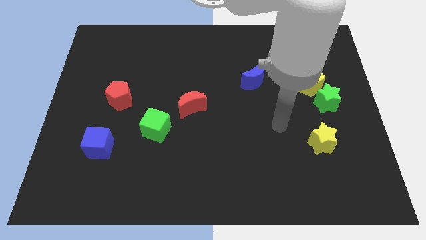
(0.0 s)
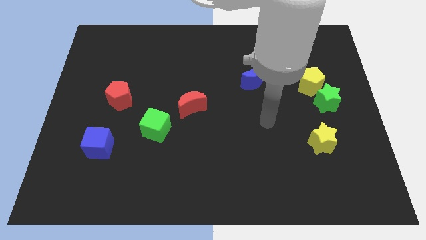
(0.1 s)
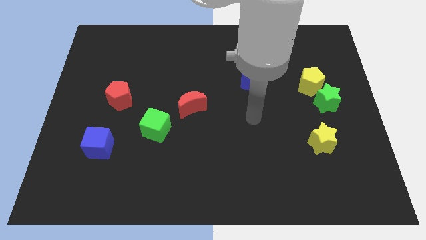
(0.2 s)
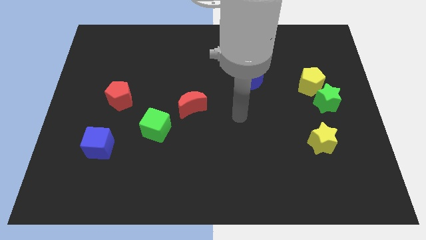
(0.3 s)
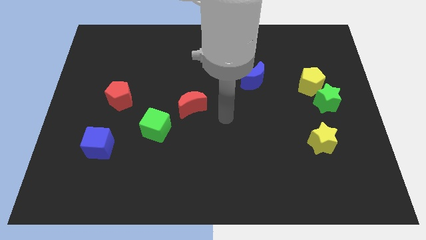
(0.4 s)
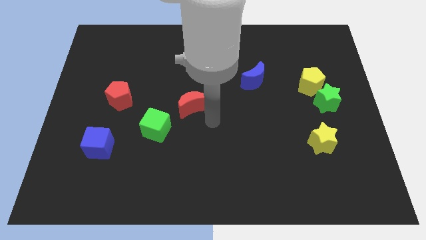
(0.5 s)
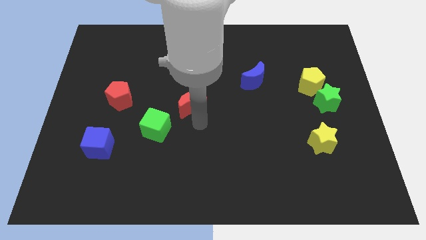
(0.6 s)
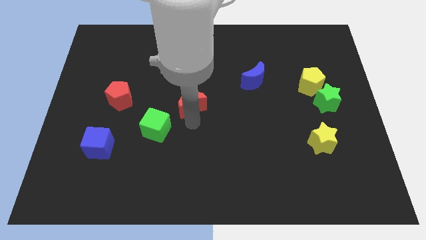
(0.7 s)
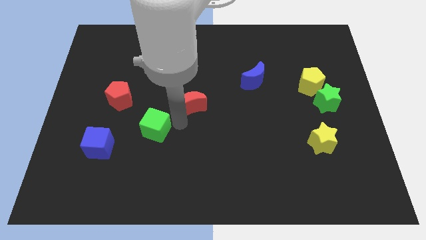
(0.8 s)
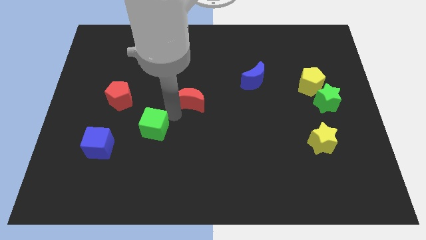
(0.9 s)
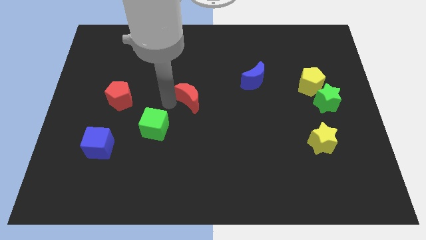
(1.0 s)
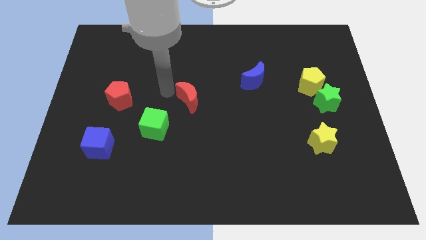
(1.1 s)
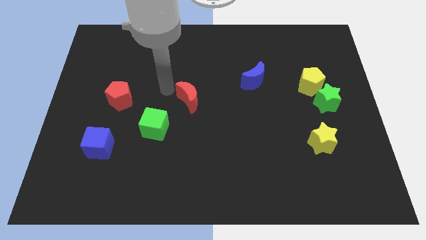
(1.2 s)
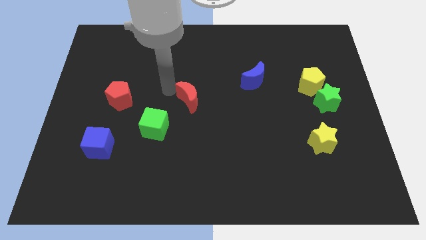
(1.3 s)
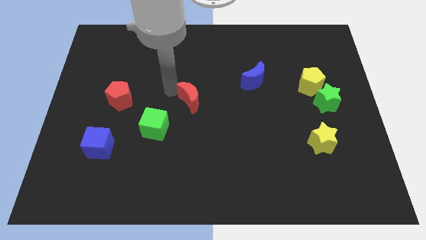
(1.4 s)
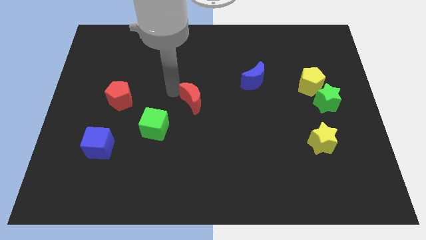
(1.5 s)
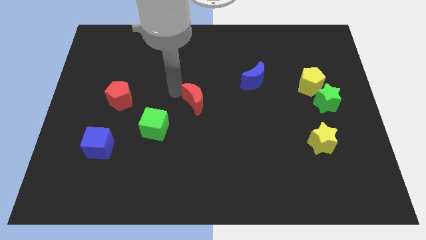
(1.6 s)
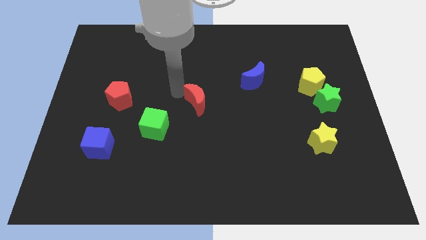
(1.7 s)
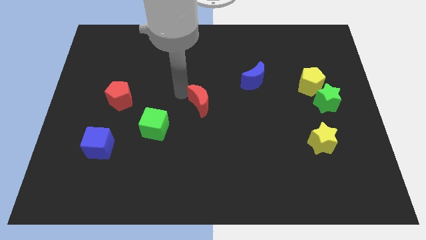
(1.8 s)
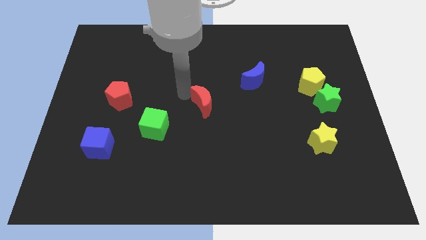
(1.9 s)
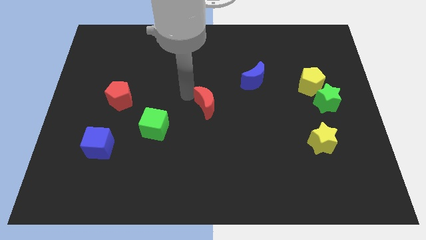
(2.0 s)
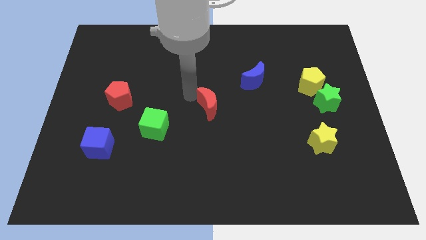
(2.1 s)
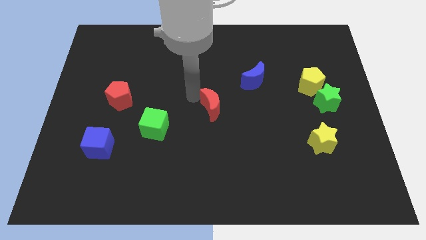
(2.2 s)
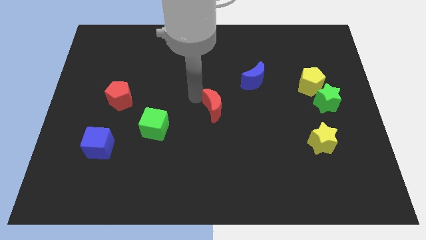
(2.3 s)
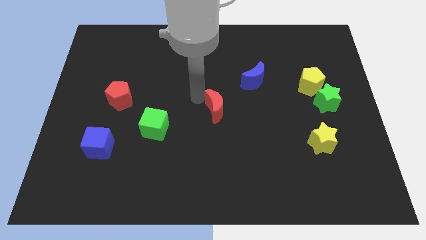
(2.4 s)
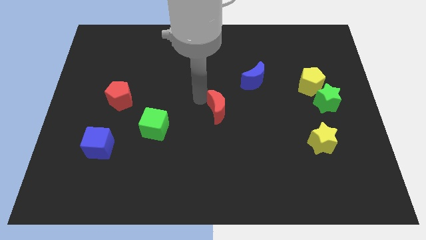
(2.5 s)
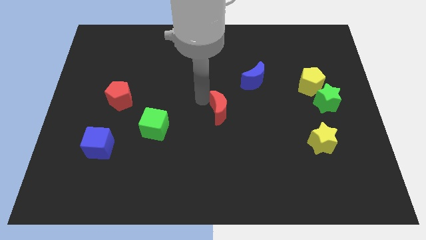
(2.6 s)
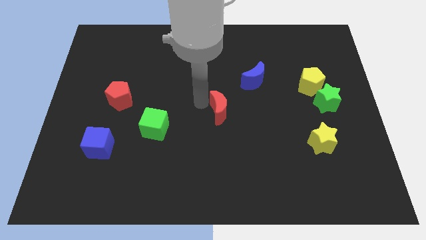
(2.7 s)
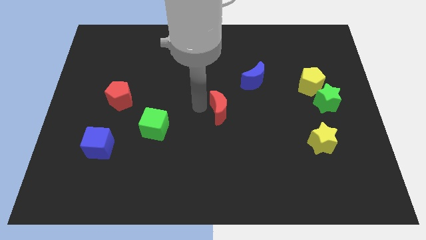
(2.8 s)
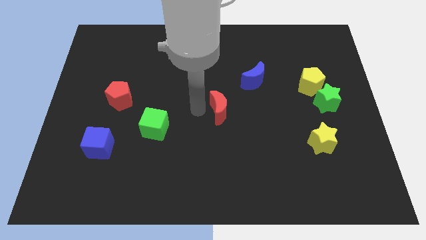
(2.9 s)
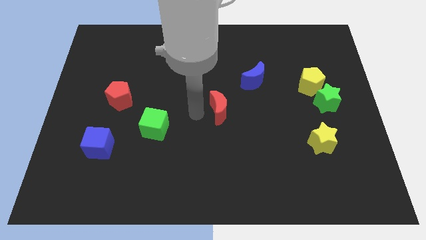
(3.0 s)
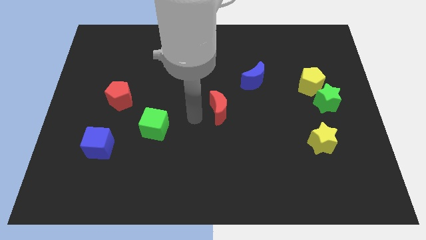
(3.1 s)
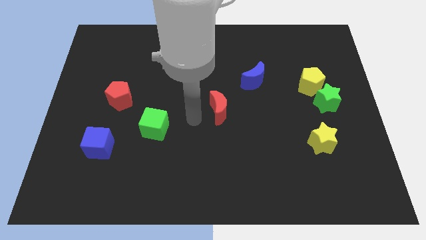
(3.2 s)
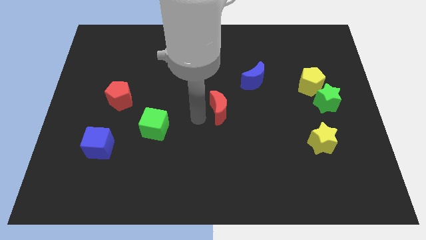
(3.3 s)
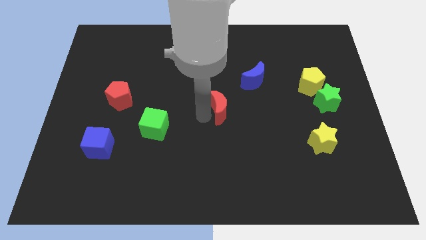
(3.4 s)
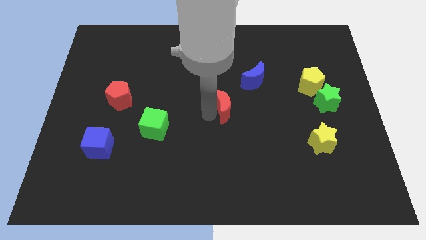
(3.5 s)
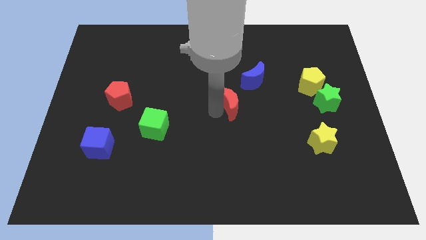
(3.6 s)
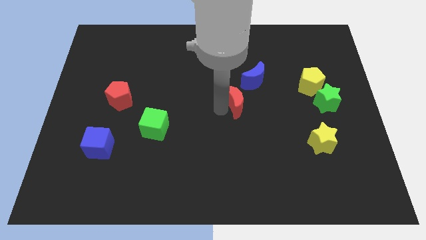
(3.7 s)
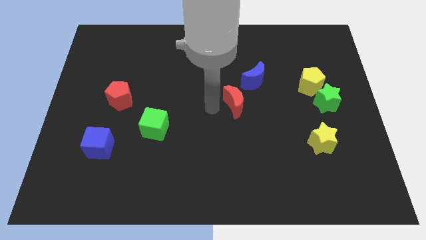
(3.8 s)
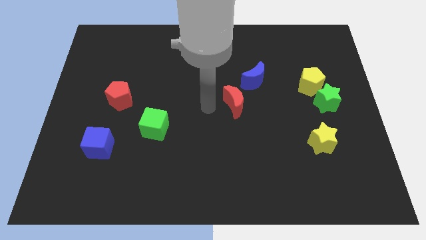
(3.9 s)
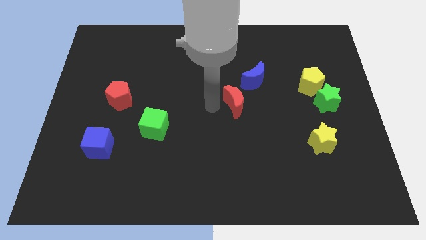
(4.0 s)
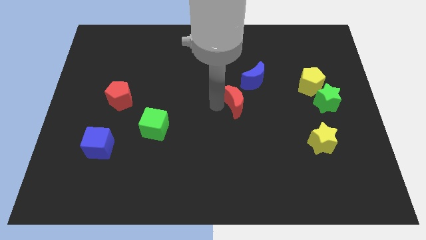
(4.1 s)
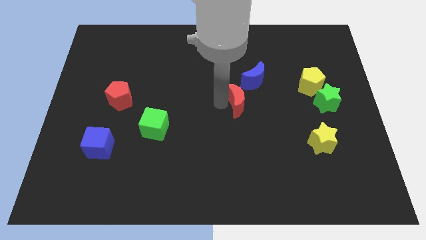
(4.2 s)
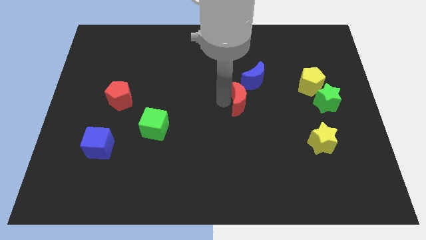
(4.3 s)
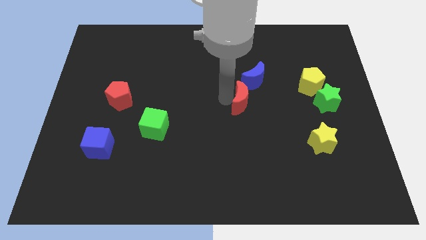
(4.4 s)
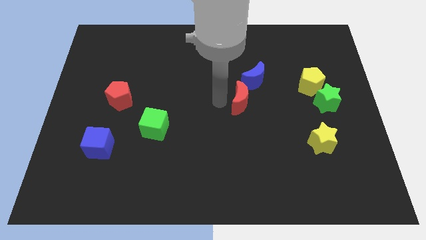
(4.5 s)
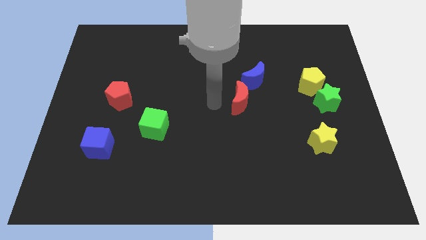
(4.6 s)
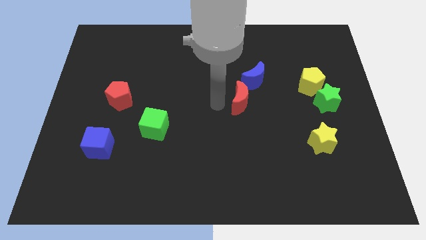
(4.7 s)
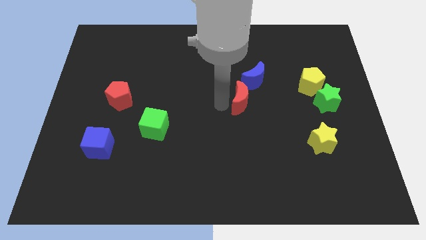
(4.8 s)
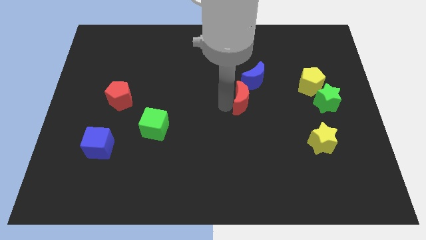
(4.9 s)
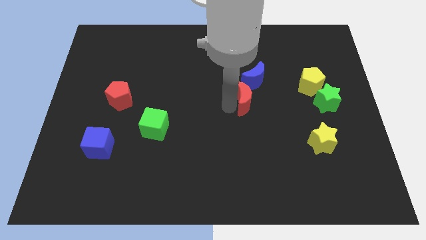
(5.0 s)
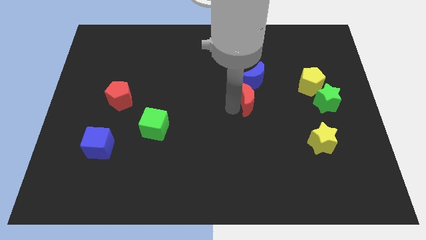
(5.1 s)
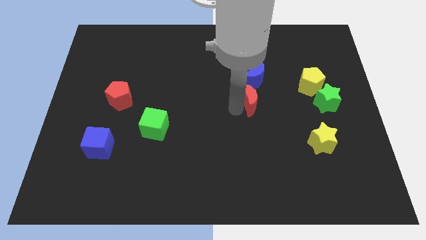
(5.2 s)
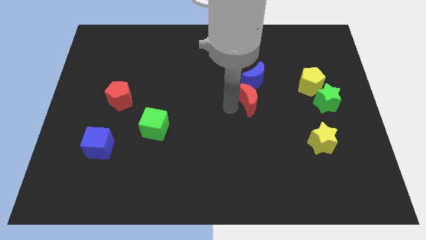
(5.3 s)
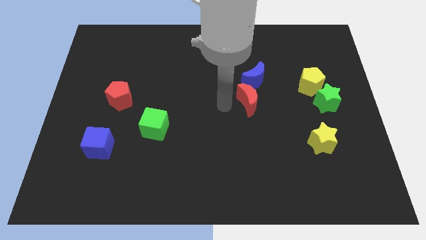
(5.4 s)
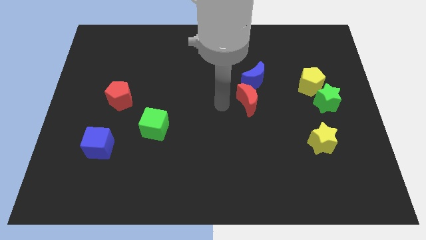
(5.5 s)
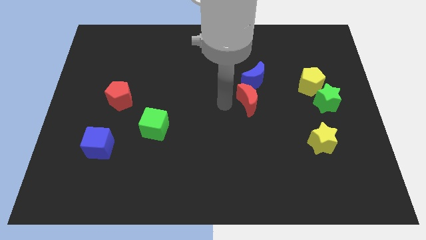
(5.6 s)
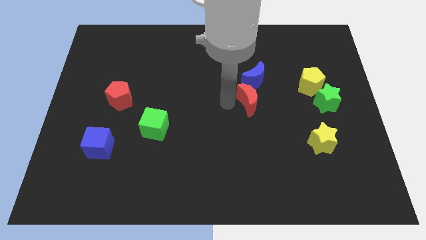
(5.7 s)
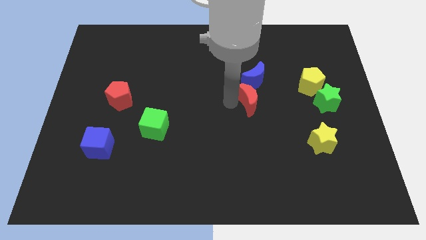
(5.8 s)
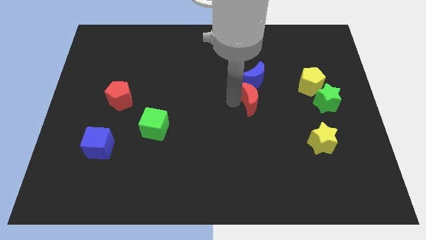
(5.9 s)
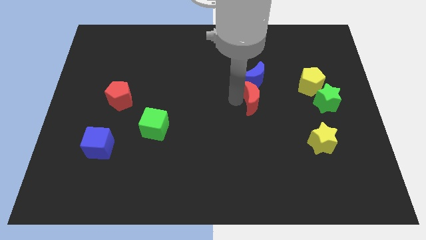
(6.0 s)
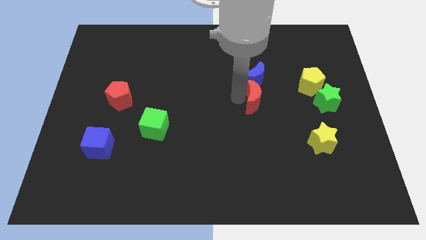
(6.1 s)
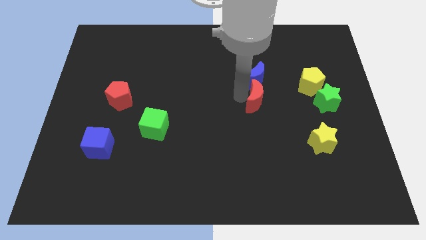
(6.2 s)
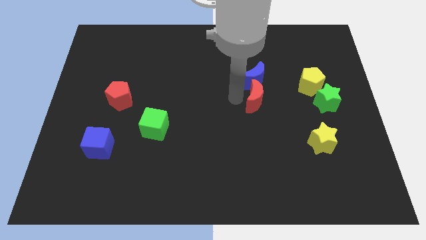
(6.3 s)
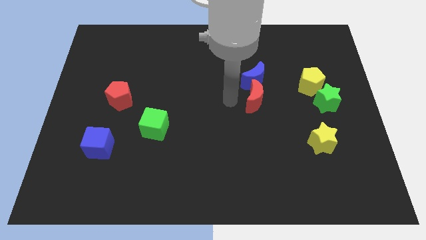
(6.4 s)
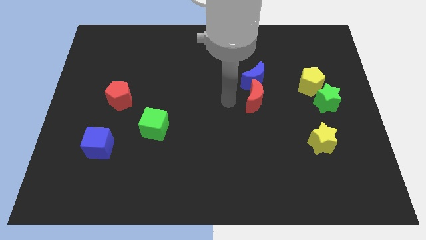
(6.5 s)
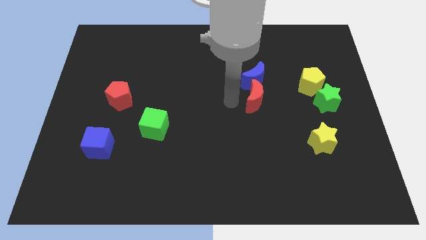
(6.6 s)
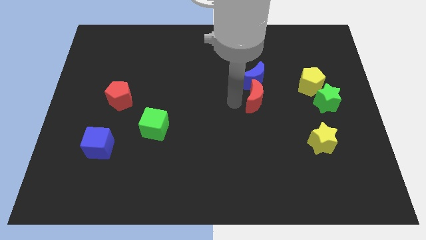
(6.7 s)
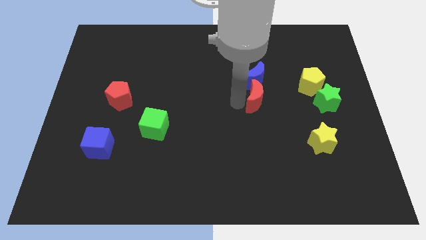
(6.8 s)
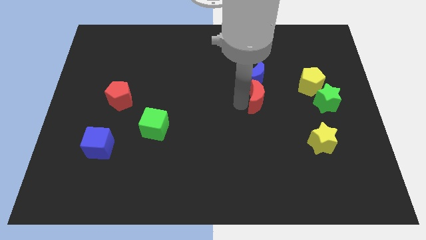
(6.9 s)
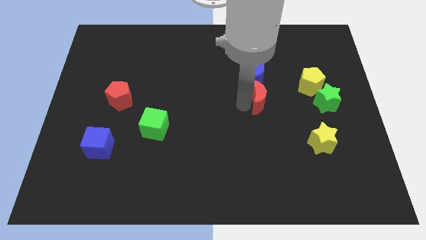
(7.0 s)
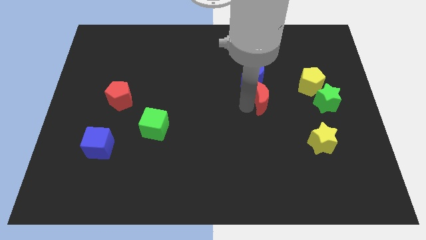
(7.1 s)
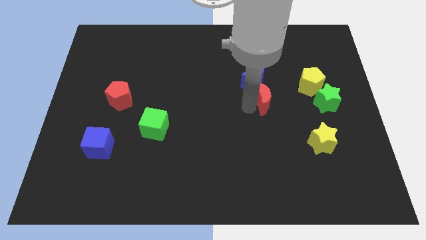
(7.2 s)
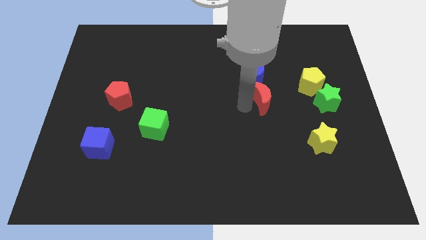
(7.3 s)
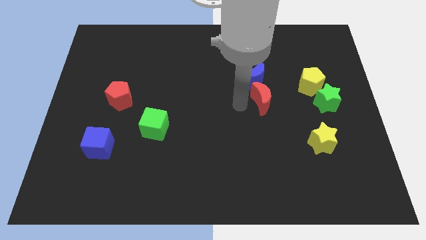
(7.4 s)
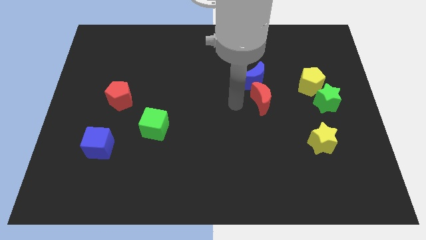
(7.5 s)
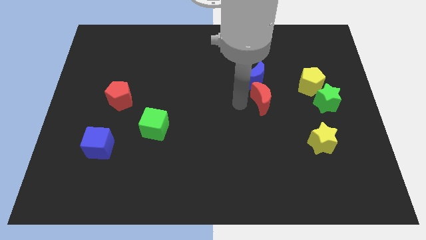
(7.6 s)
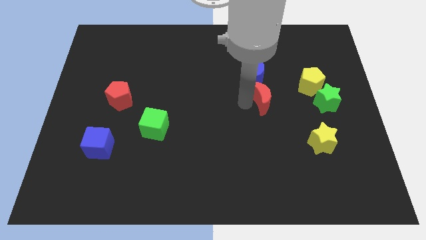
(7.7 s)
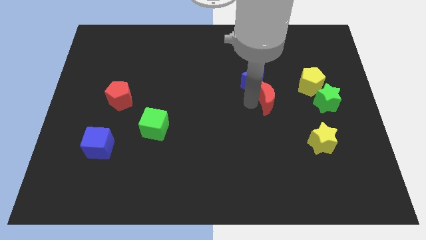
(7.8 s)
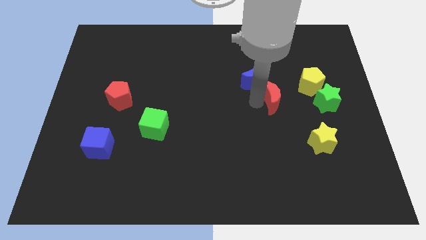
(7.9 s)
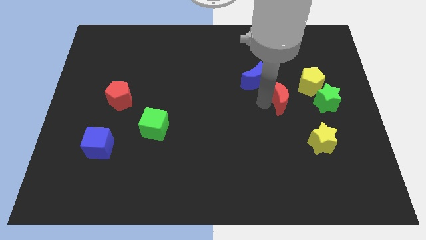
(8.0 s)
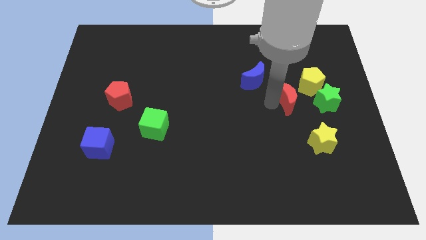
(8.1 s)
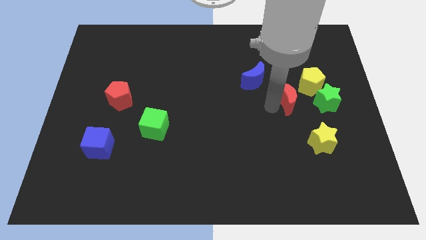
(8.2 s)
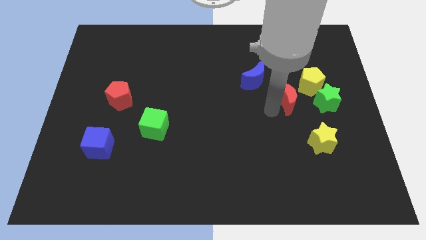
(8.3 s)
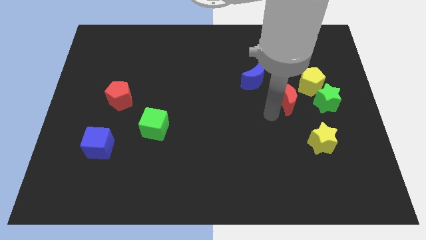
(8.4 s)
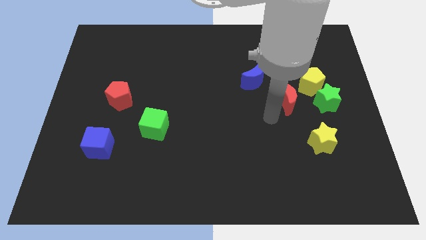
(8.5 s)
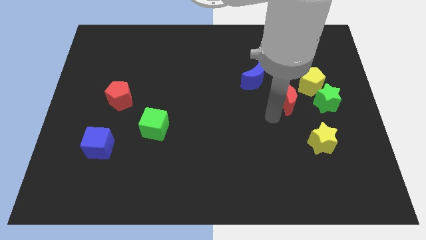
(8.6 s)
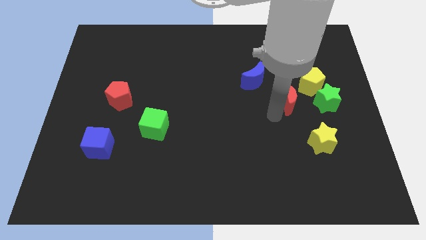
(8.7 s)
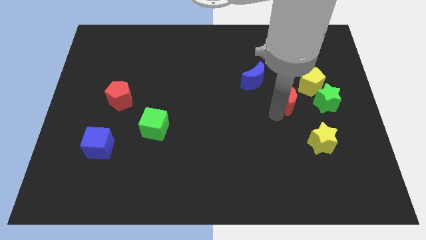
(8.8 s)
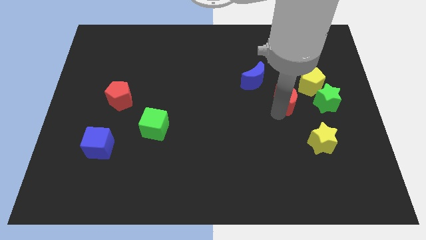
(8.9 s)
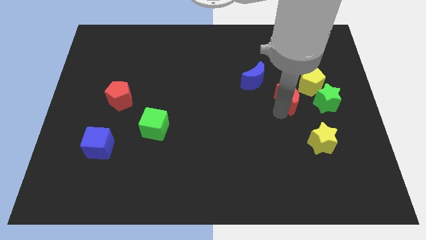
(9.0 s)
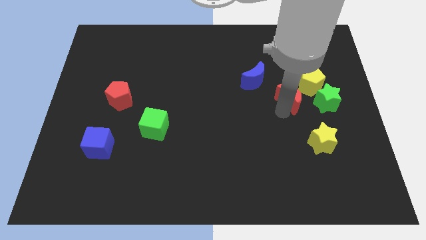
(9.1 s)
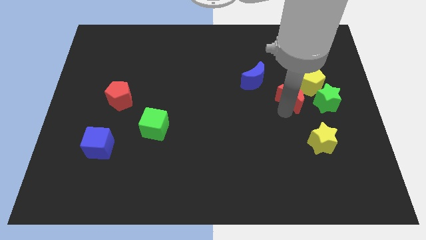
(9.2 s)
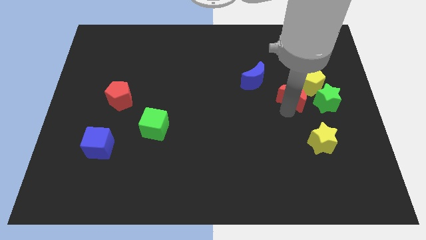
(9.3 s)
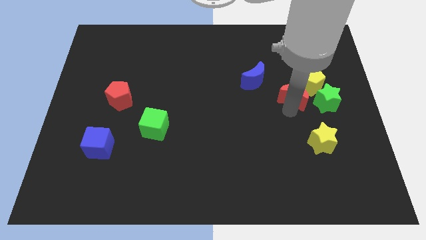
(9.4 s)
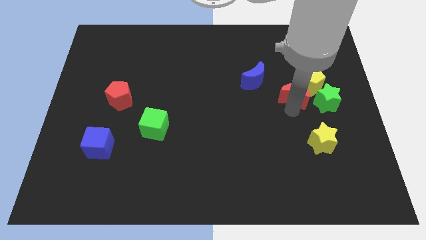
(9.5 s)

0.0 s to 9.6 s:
slide the red moon close to the yellow pentagon
